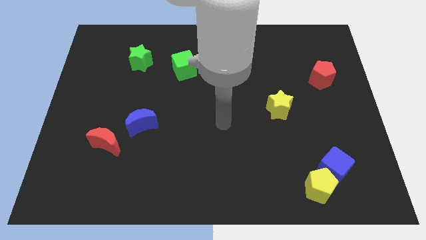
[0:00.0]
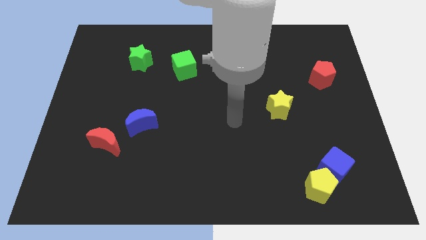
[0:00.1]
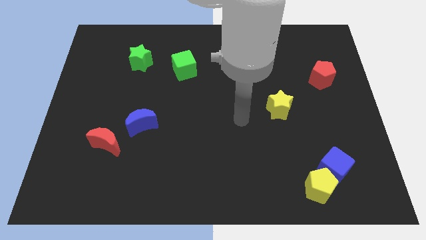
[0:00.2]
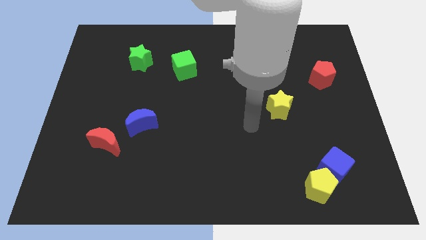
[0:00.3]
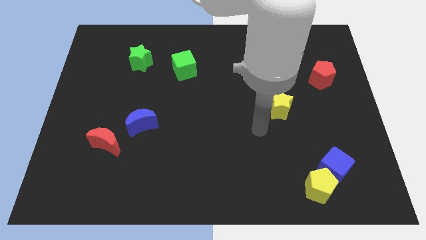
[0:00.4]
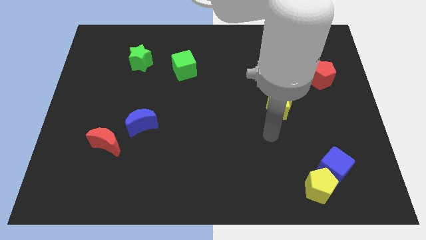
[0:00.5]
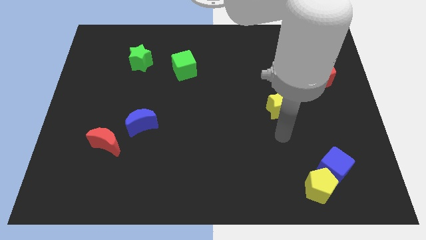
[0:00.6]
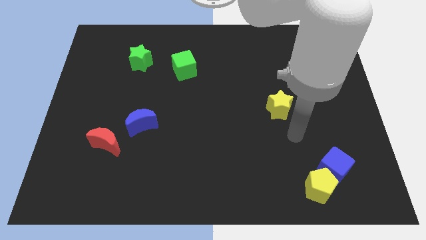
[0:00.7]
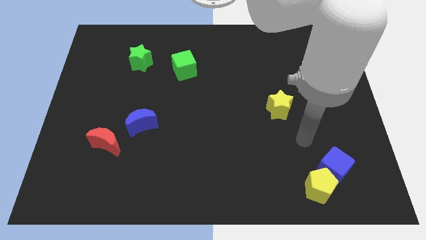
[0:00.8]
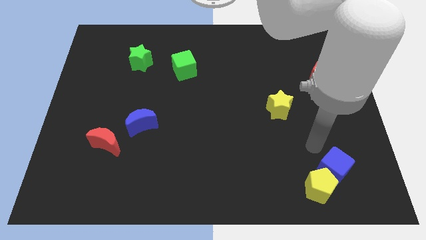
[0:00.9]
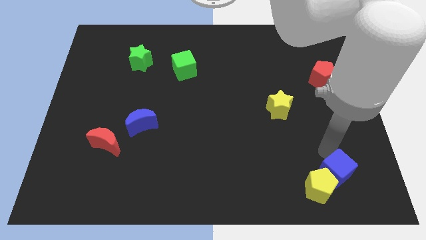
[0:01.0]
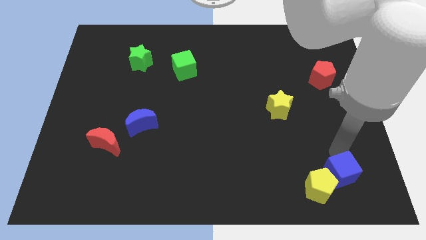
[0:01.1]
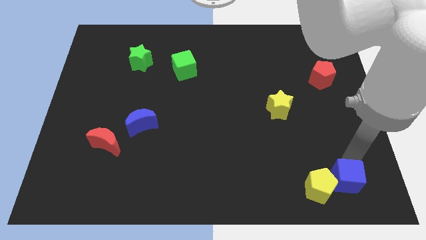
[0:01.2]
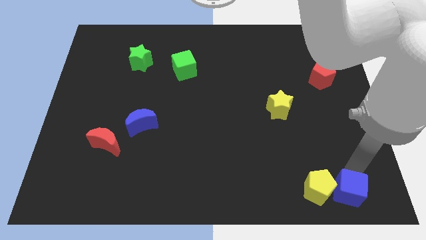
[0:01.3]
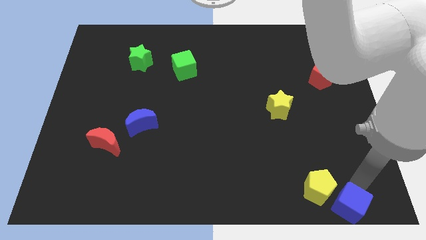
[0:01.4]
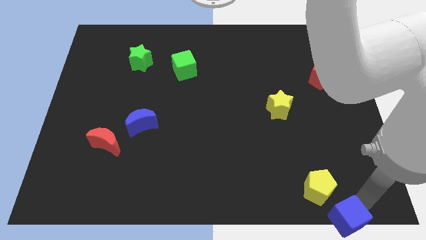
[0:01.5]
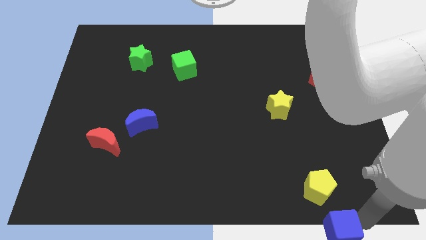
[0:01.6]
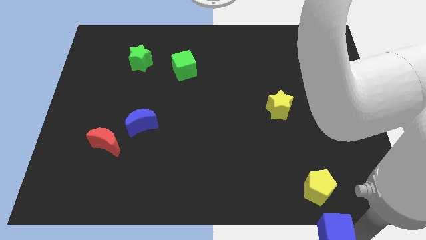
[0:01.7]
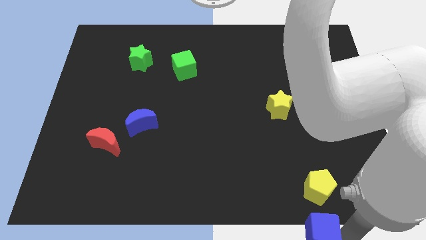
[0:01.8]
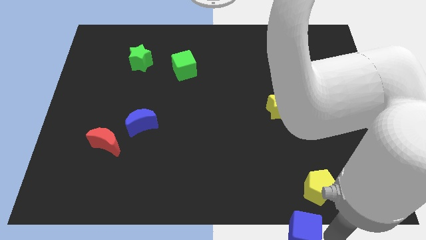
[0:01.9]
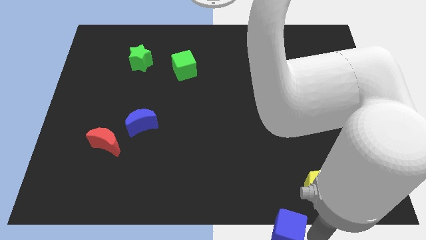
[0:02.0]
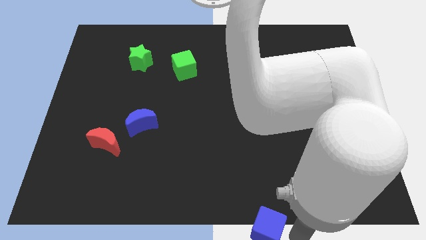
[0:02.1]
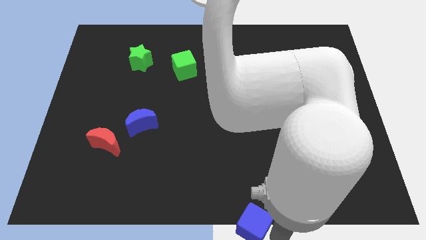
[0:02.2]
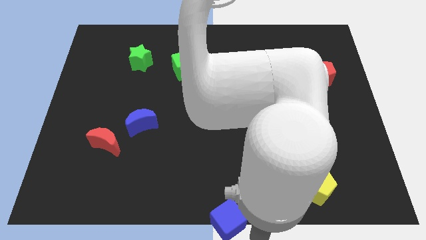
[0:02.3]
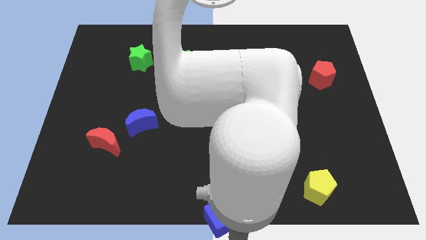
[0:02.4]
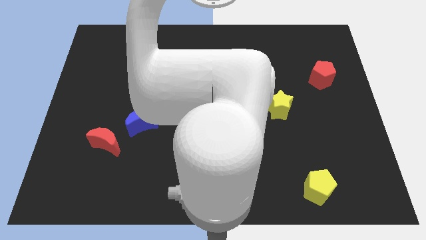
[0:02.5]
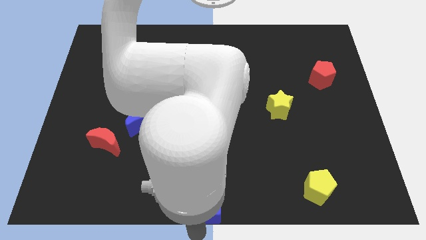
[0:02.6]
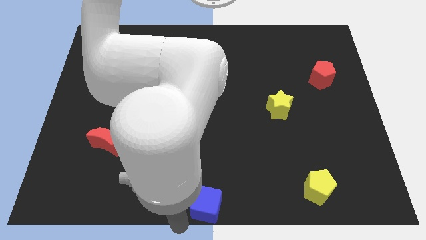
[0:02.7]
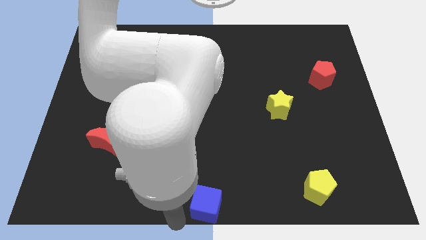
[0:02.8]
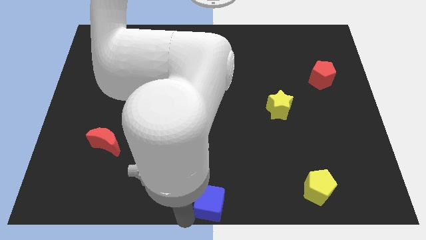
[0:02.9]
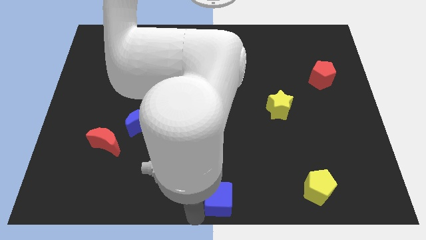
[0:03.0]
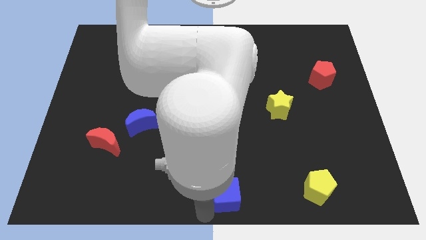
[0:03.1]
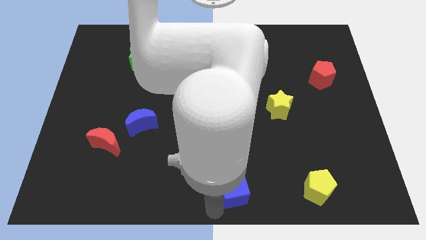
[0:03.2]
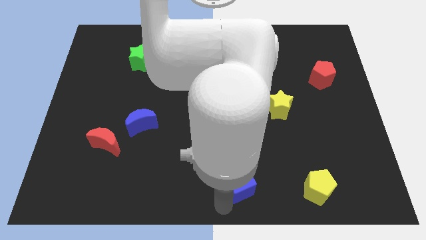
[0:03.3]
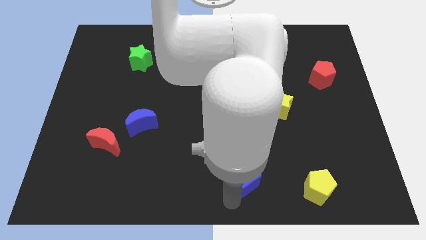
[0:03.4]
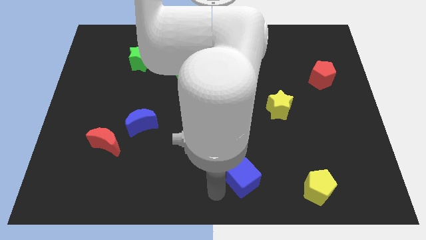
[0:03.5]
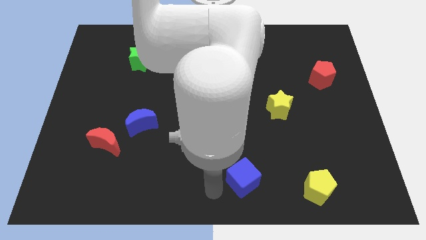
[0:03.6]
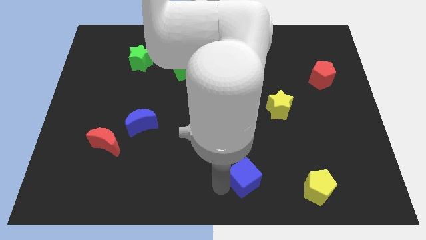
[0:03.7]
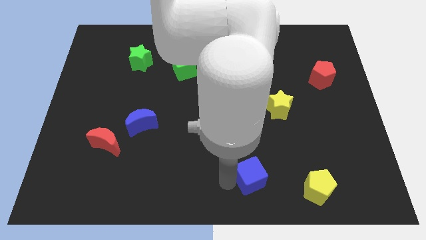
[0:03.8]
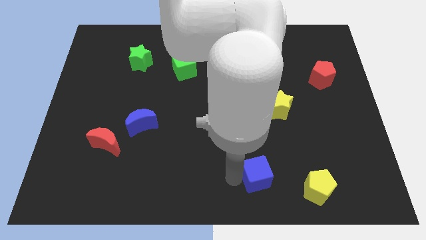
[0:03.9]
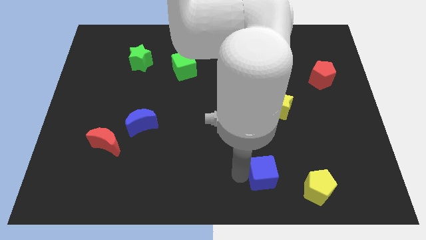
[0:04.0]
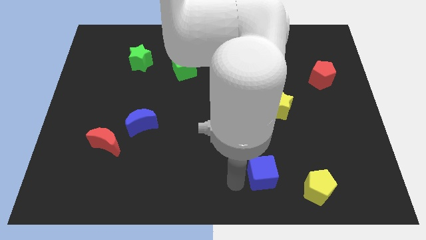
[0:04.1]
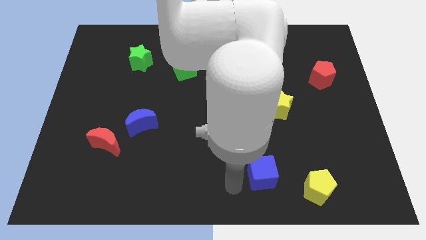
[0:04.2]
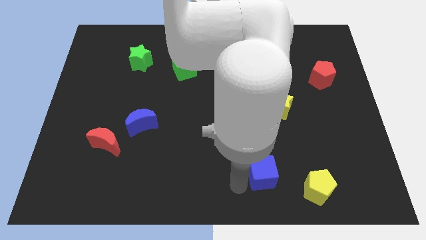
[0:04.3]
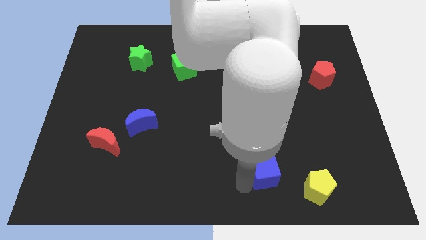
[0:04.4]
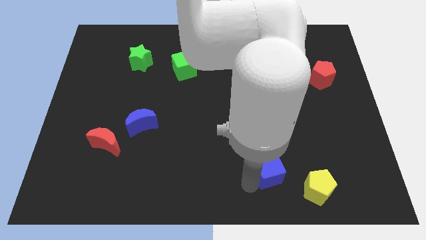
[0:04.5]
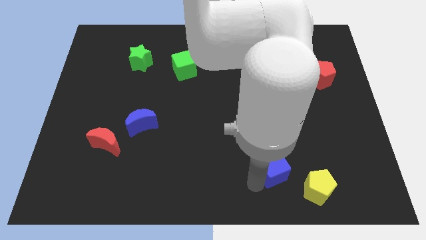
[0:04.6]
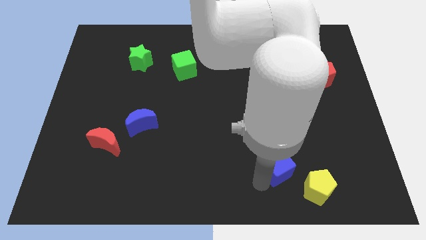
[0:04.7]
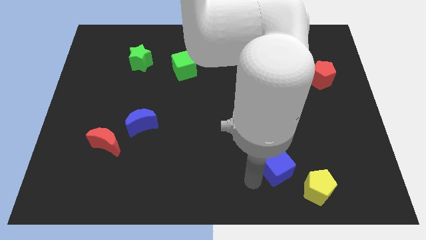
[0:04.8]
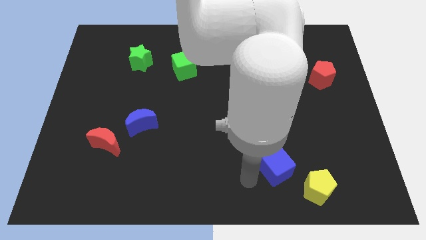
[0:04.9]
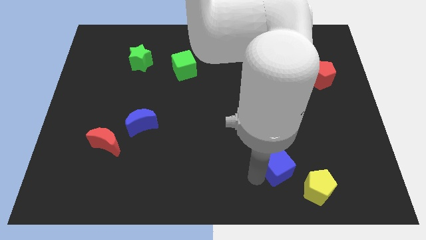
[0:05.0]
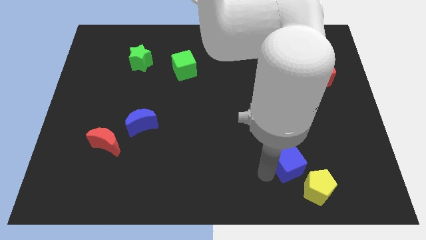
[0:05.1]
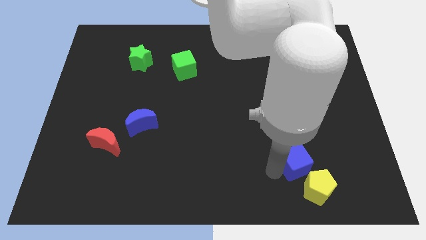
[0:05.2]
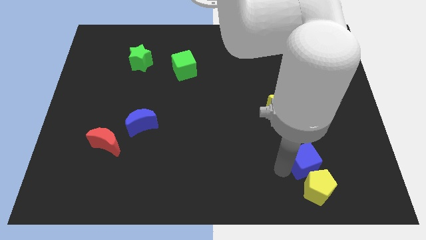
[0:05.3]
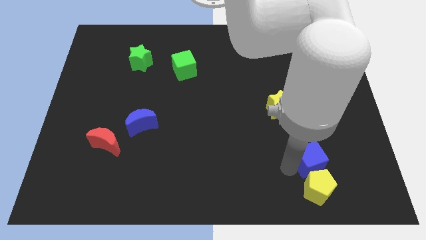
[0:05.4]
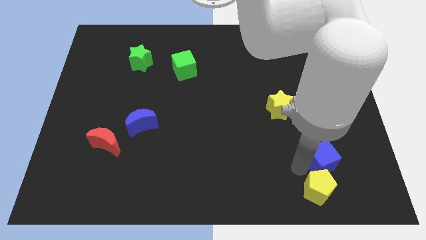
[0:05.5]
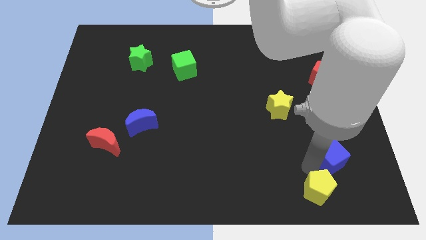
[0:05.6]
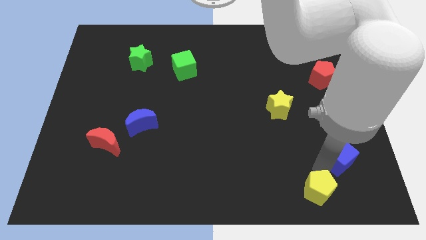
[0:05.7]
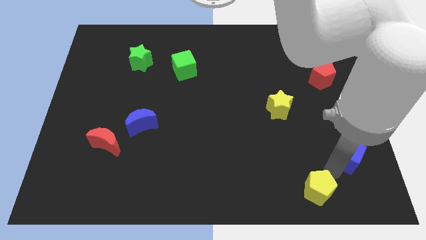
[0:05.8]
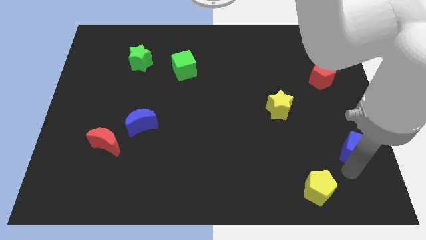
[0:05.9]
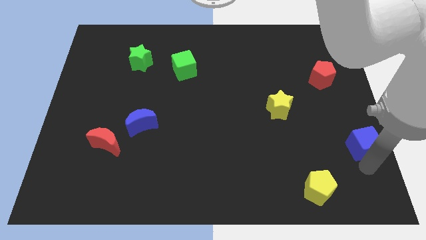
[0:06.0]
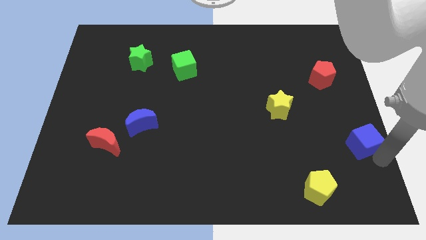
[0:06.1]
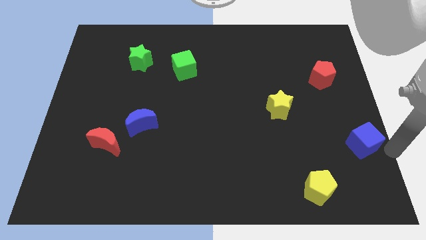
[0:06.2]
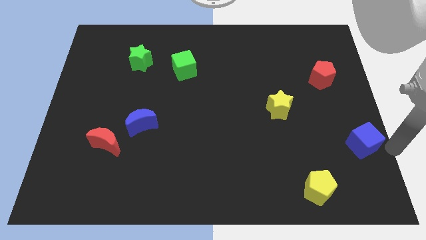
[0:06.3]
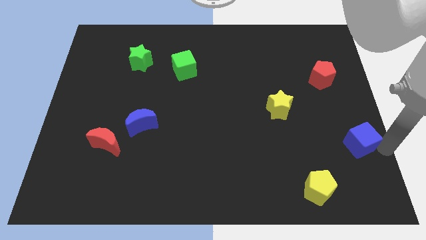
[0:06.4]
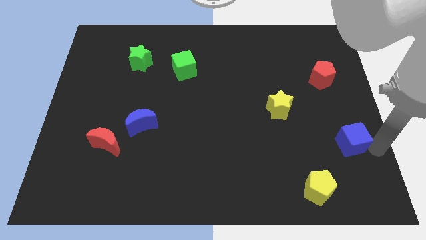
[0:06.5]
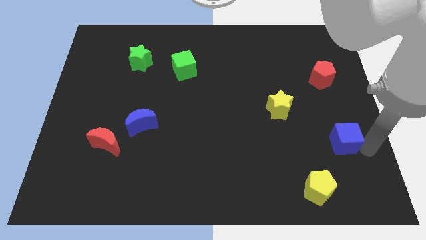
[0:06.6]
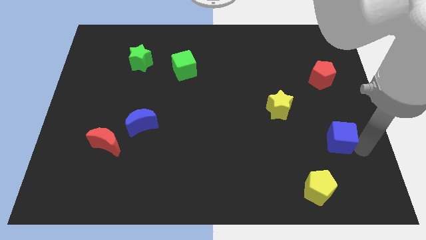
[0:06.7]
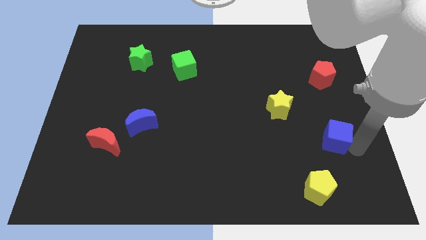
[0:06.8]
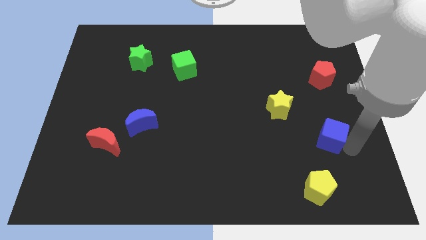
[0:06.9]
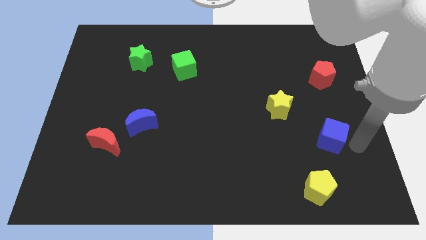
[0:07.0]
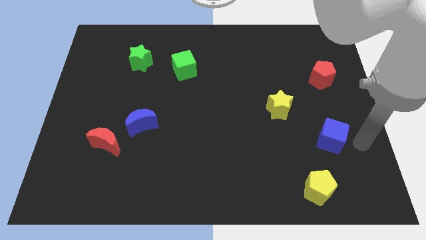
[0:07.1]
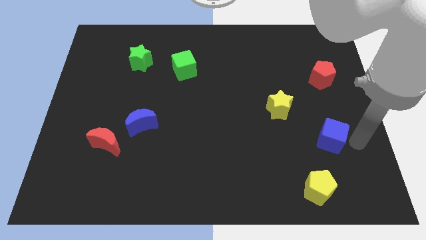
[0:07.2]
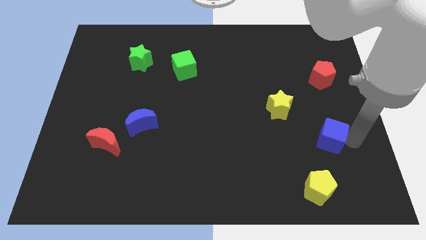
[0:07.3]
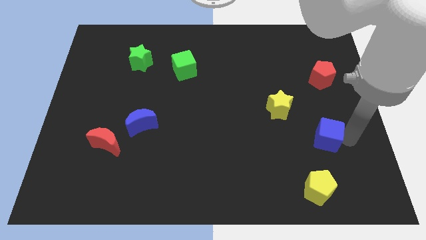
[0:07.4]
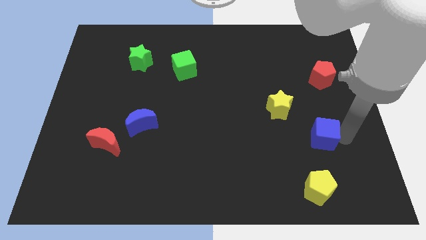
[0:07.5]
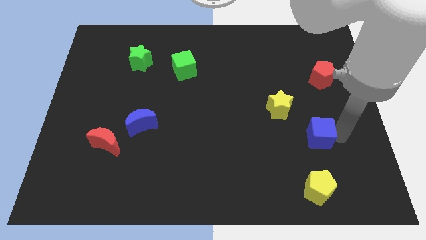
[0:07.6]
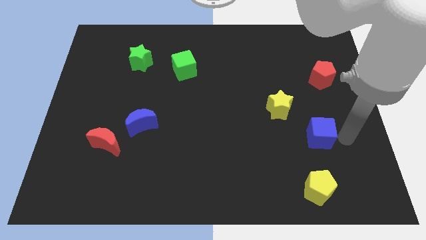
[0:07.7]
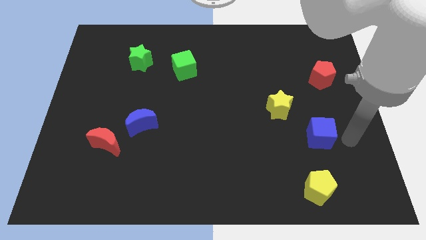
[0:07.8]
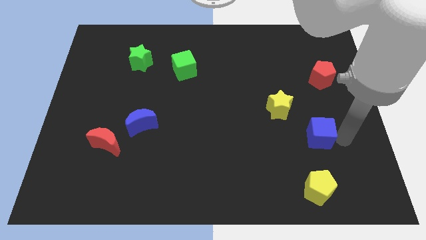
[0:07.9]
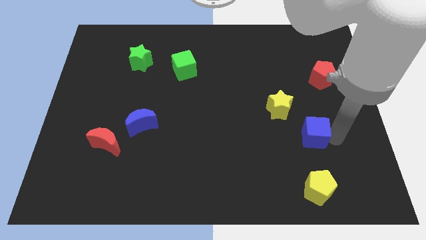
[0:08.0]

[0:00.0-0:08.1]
move the blue cube diagonally upwards and left slightly
